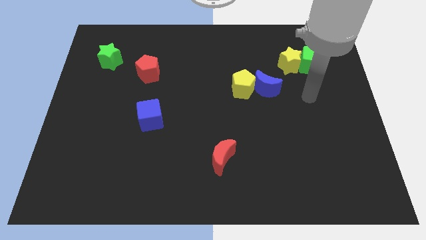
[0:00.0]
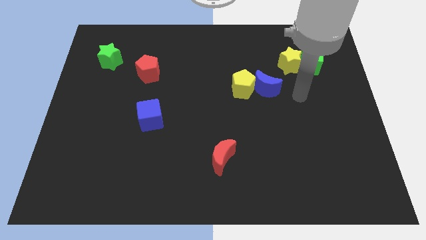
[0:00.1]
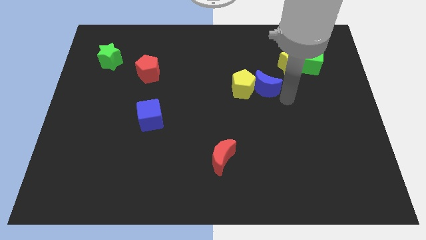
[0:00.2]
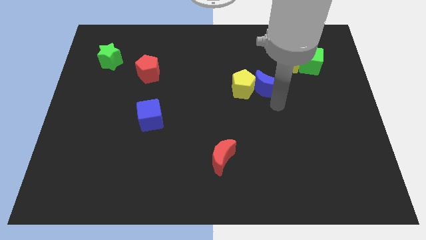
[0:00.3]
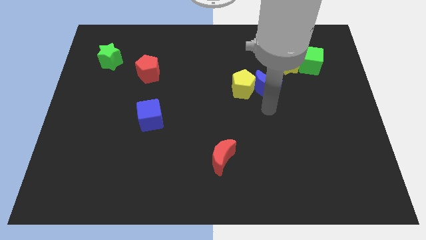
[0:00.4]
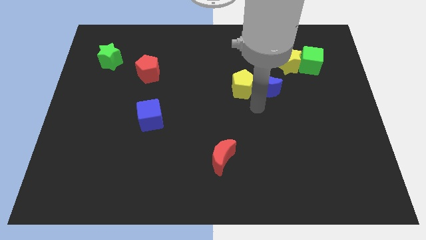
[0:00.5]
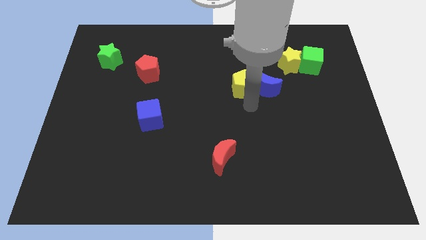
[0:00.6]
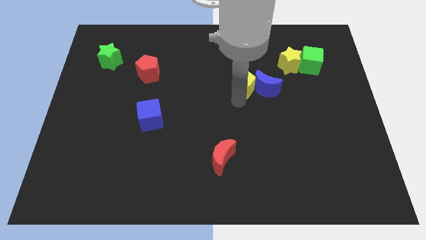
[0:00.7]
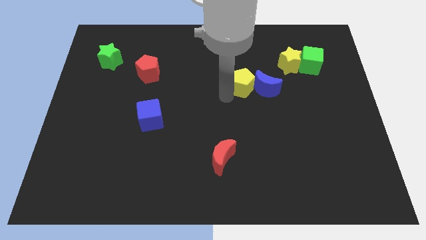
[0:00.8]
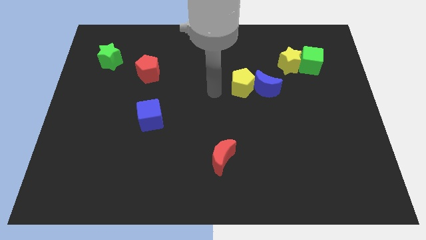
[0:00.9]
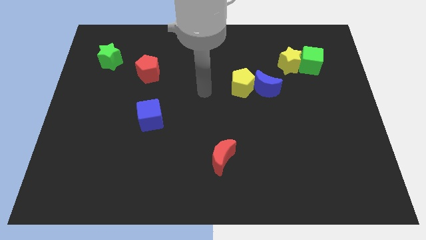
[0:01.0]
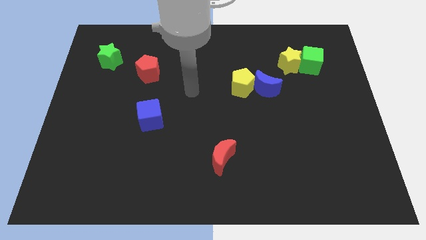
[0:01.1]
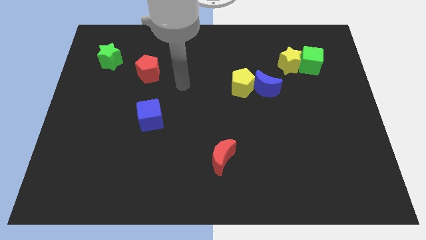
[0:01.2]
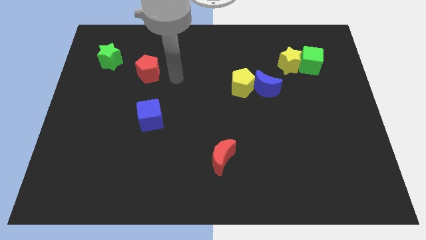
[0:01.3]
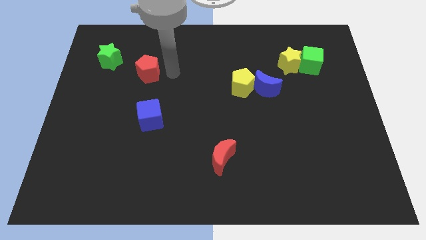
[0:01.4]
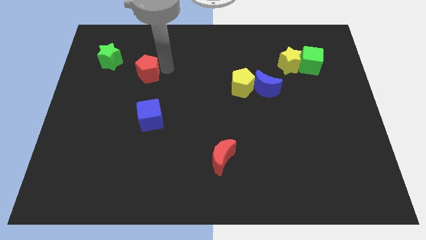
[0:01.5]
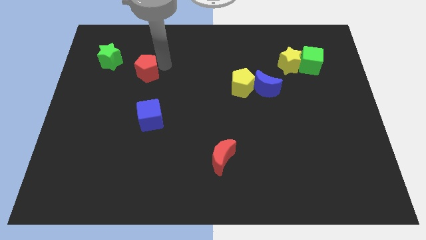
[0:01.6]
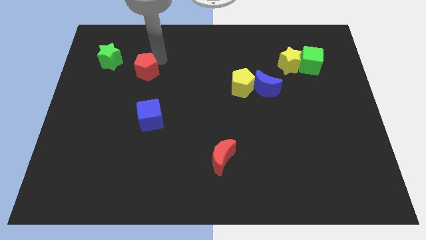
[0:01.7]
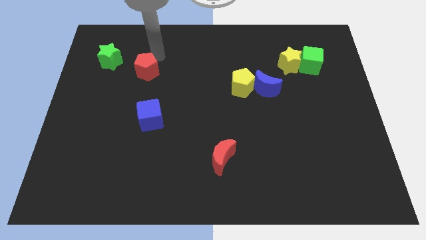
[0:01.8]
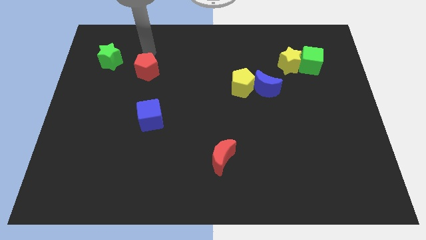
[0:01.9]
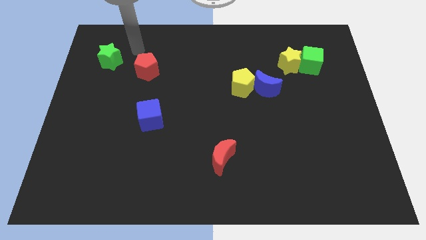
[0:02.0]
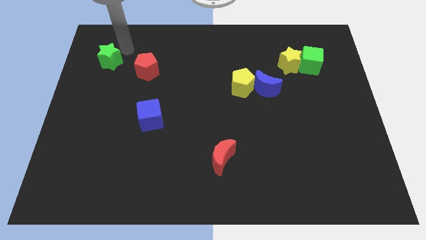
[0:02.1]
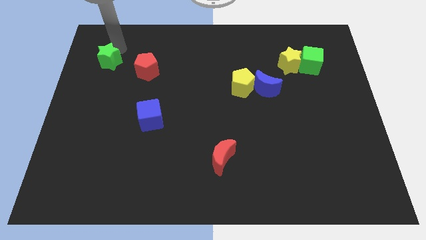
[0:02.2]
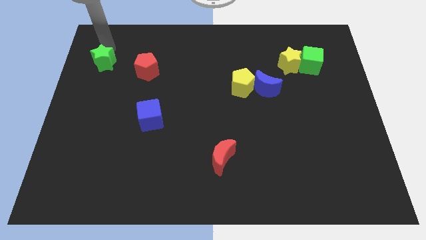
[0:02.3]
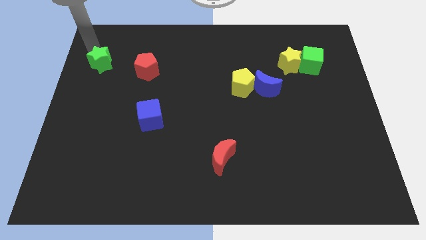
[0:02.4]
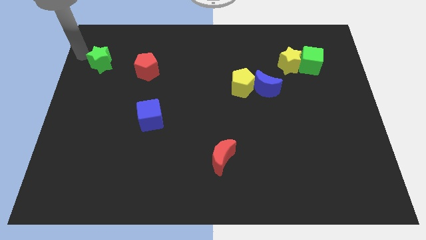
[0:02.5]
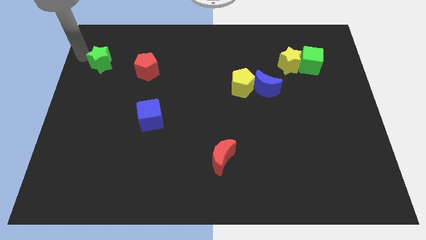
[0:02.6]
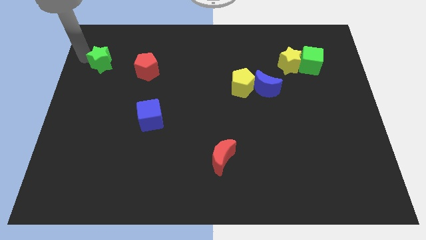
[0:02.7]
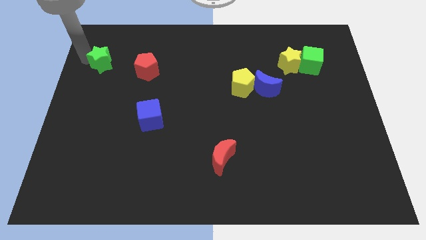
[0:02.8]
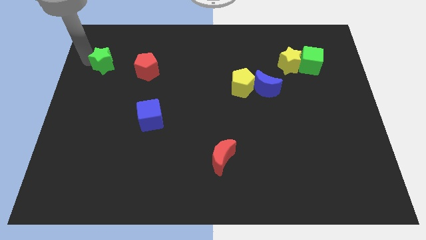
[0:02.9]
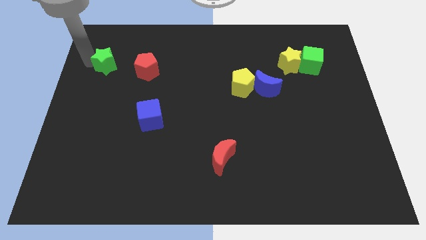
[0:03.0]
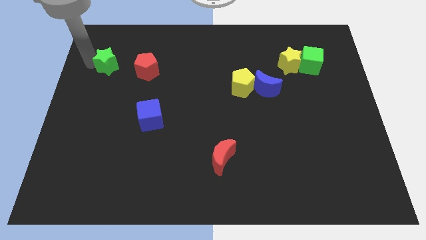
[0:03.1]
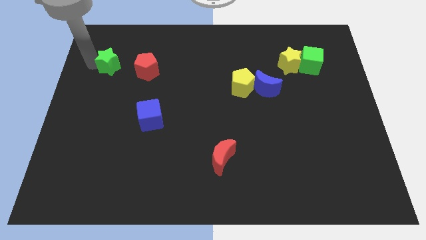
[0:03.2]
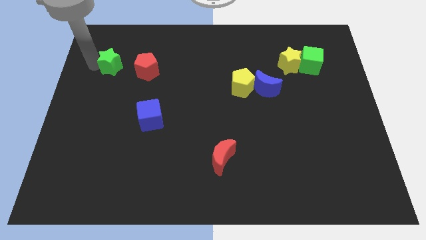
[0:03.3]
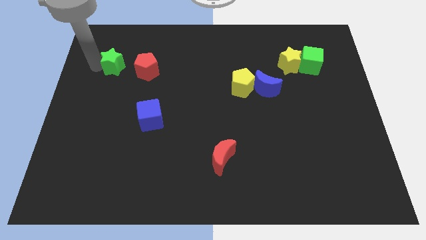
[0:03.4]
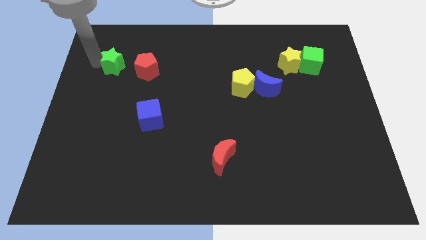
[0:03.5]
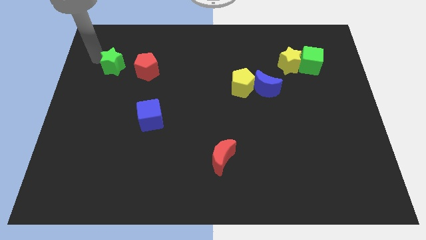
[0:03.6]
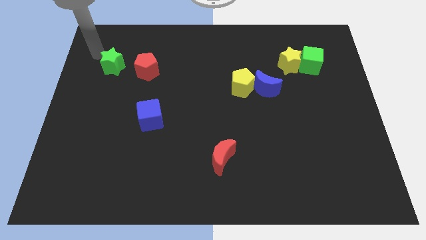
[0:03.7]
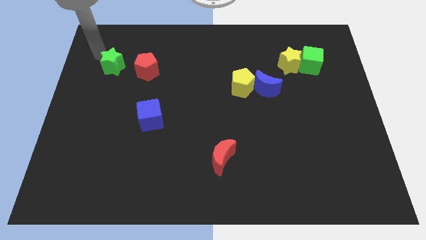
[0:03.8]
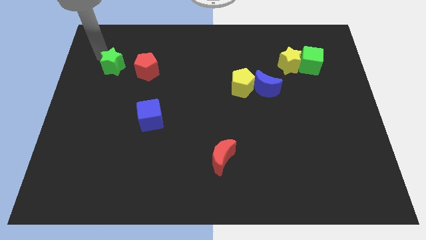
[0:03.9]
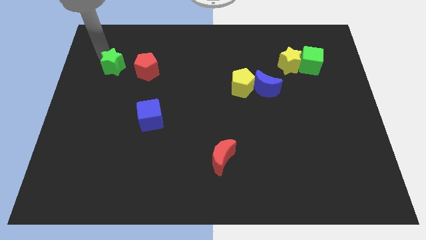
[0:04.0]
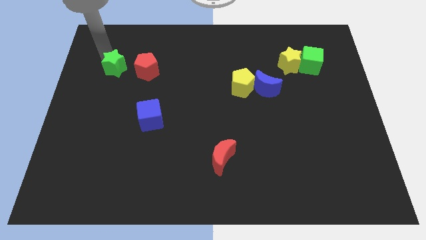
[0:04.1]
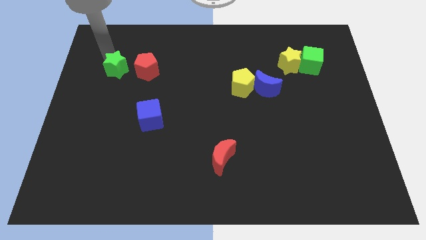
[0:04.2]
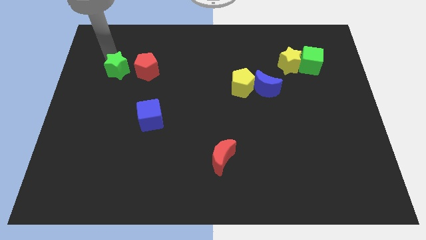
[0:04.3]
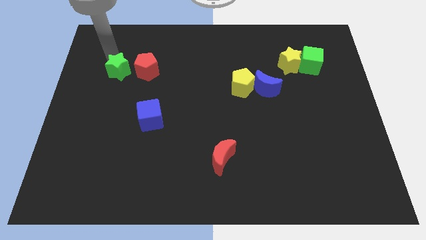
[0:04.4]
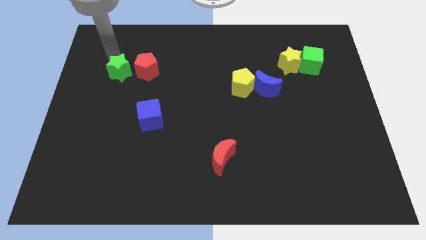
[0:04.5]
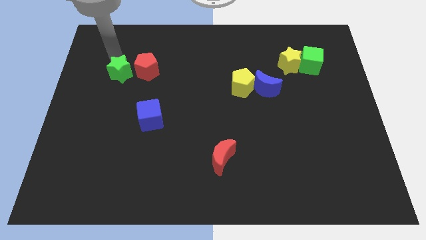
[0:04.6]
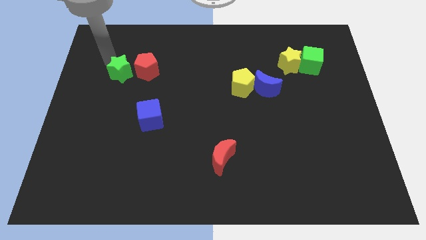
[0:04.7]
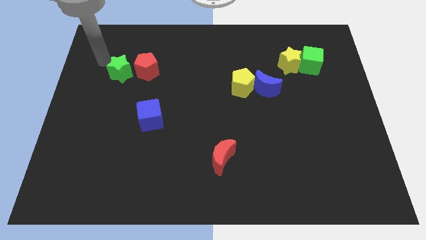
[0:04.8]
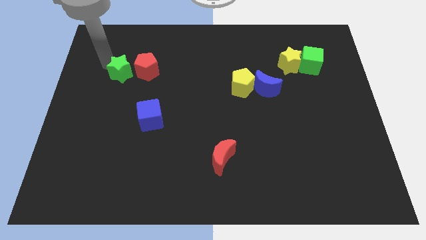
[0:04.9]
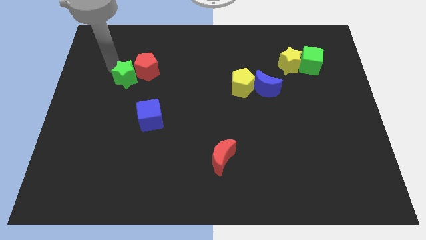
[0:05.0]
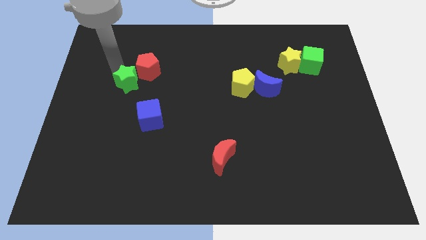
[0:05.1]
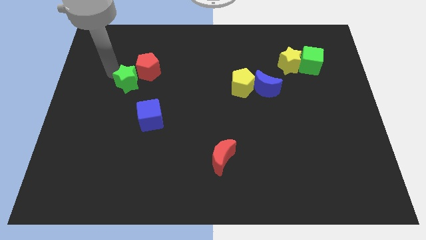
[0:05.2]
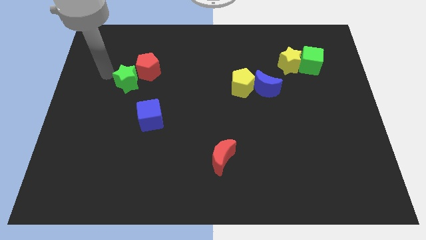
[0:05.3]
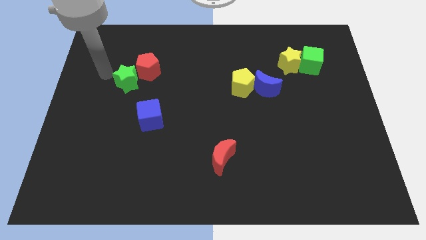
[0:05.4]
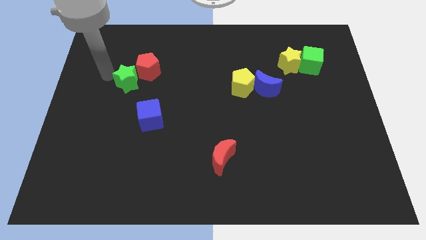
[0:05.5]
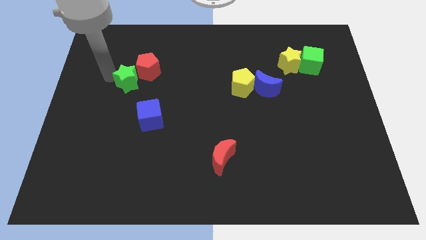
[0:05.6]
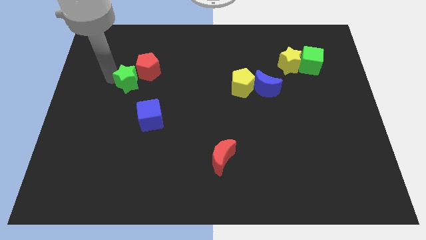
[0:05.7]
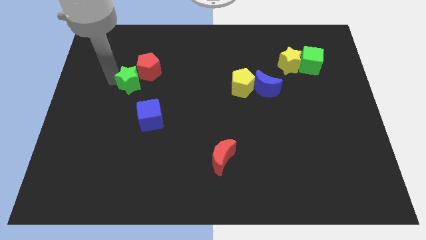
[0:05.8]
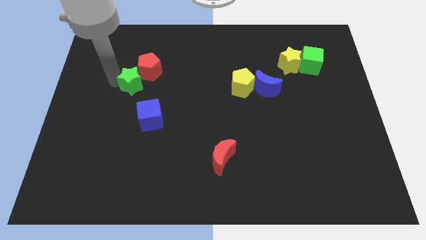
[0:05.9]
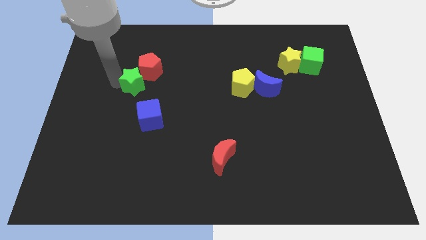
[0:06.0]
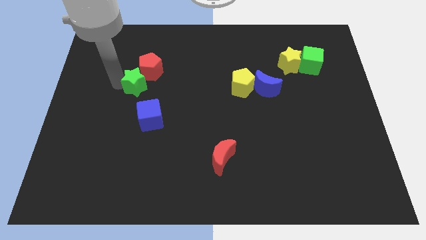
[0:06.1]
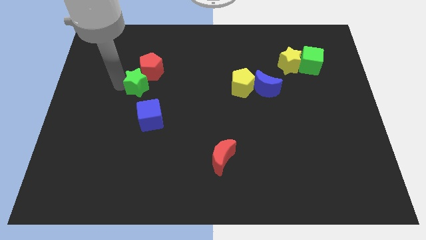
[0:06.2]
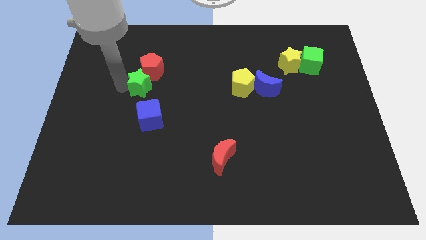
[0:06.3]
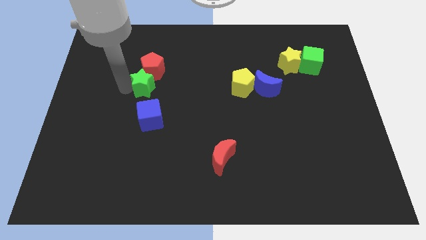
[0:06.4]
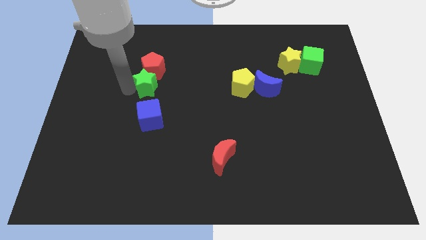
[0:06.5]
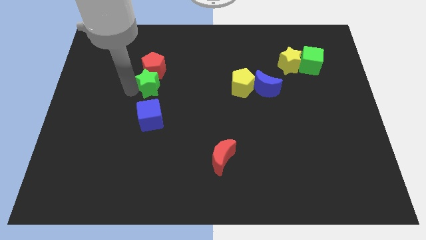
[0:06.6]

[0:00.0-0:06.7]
put the green star to the bottom right side of the red pentagon
